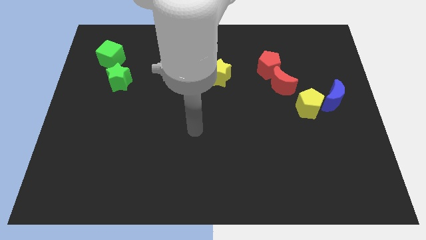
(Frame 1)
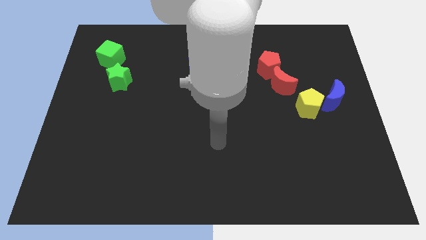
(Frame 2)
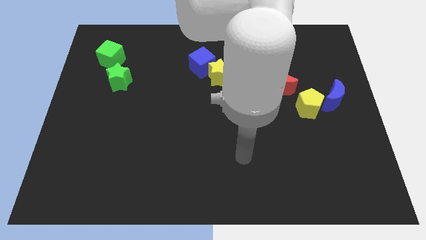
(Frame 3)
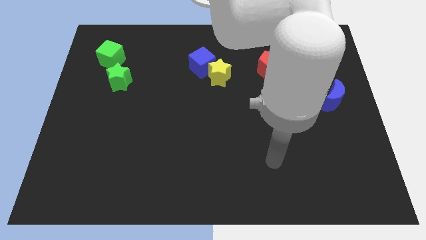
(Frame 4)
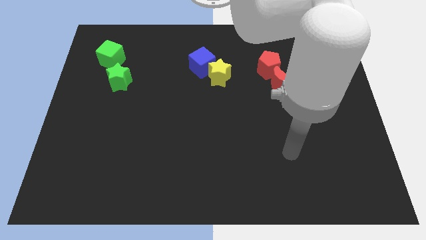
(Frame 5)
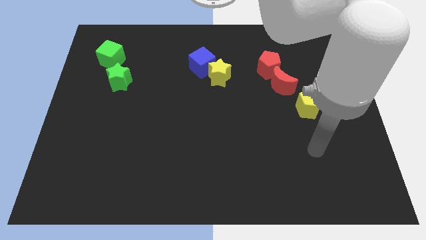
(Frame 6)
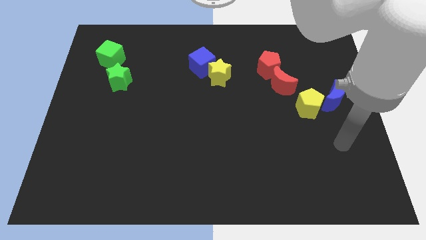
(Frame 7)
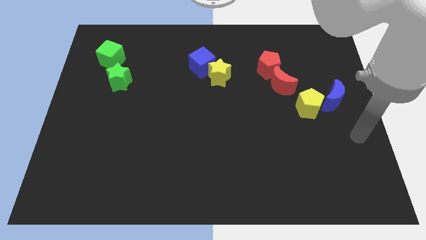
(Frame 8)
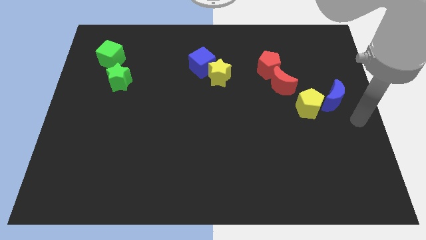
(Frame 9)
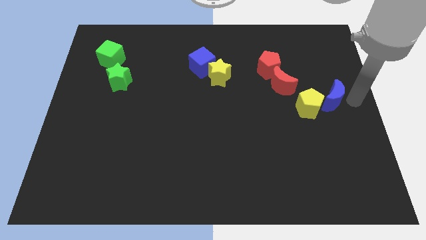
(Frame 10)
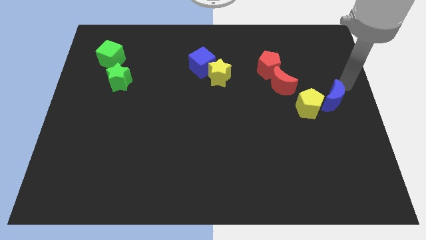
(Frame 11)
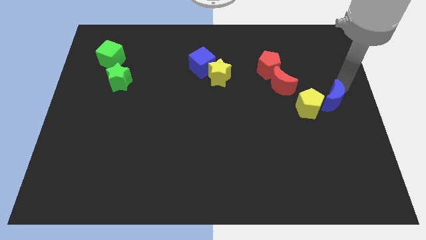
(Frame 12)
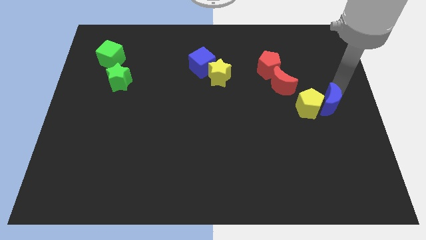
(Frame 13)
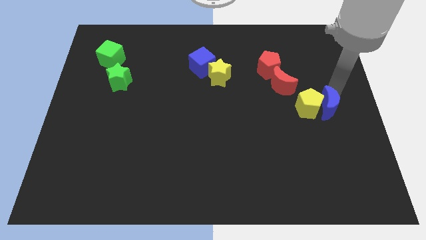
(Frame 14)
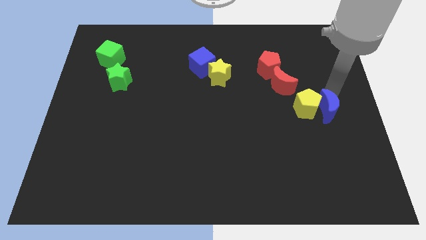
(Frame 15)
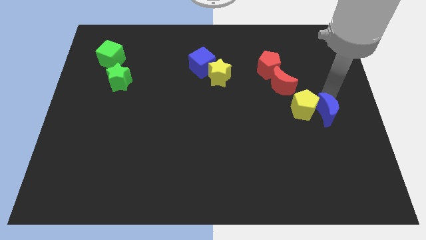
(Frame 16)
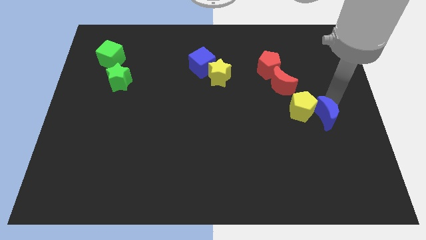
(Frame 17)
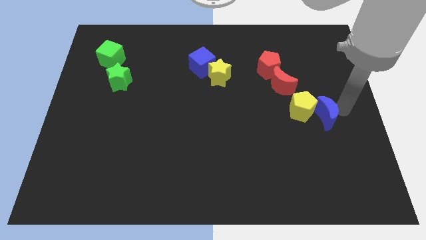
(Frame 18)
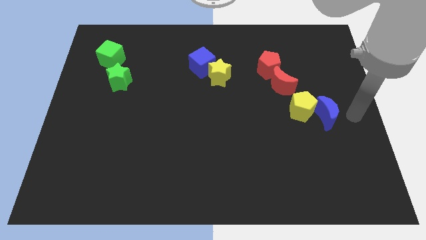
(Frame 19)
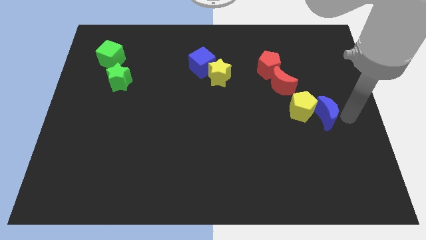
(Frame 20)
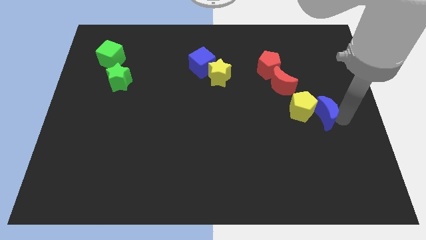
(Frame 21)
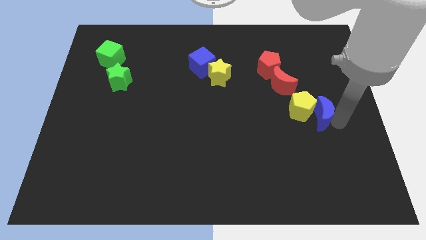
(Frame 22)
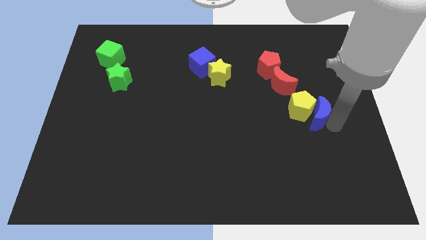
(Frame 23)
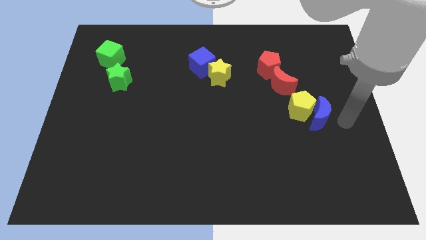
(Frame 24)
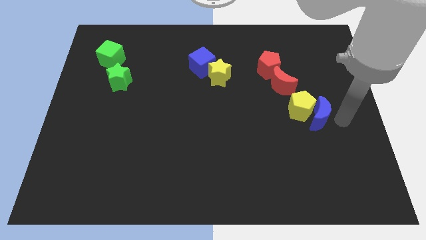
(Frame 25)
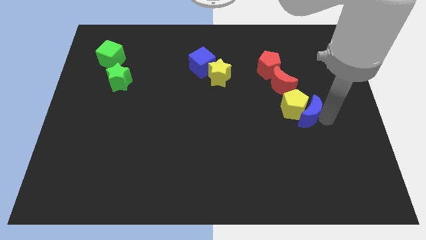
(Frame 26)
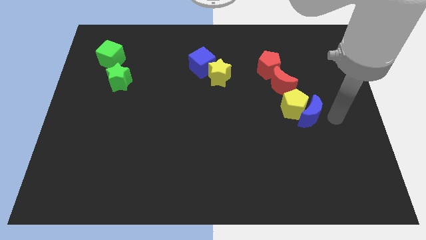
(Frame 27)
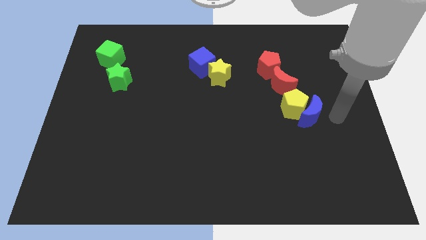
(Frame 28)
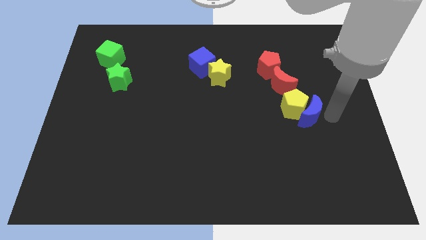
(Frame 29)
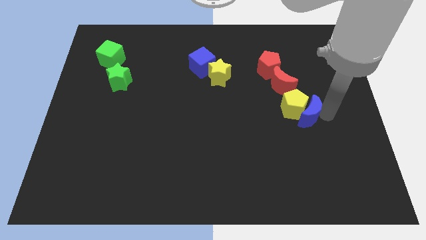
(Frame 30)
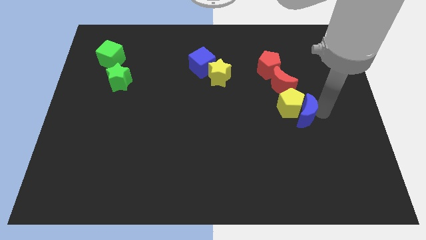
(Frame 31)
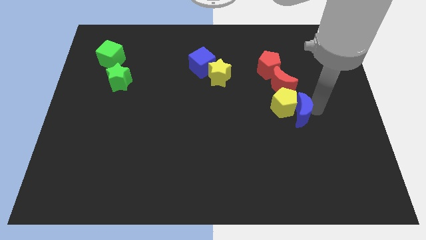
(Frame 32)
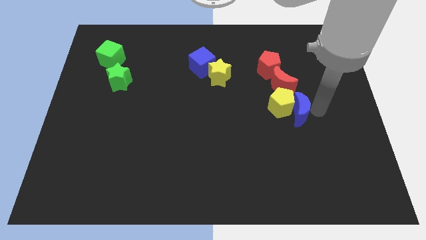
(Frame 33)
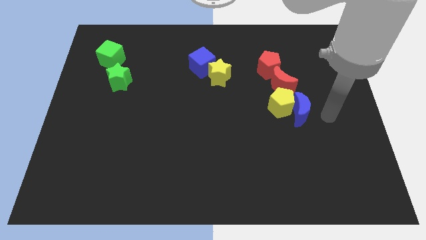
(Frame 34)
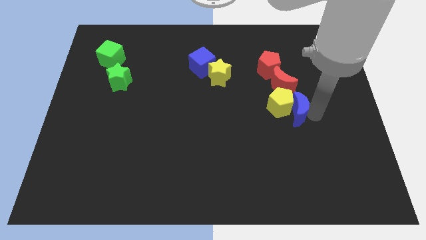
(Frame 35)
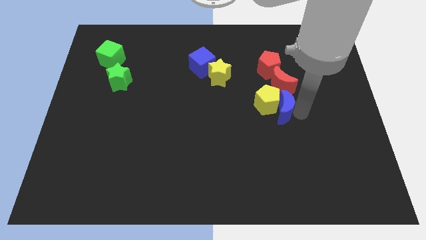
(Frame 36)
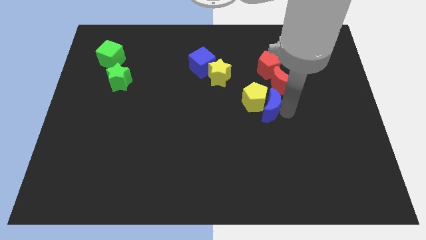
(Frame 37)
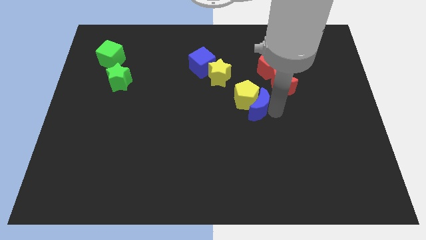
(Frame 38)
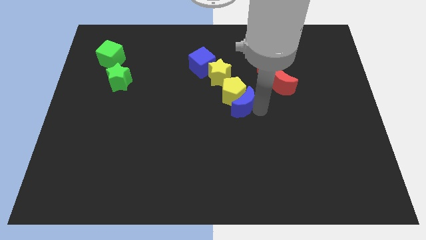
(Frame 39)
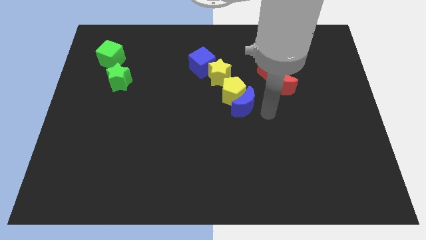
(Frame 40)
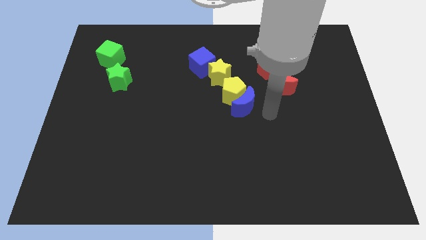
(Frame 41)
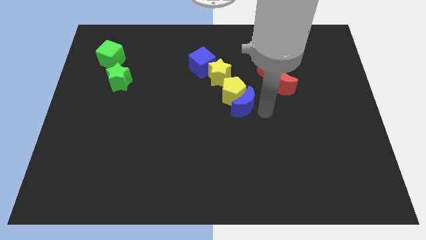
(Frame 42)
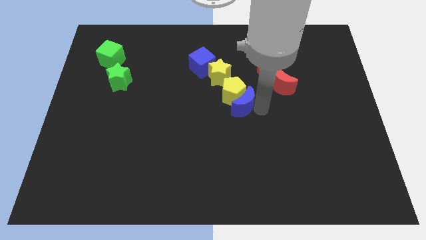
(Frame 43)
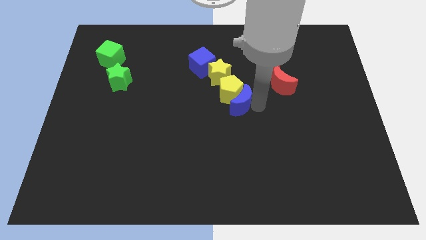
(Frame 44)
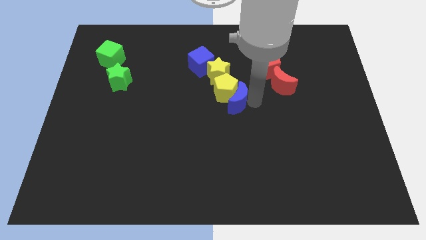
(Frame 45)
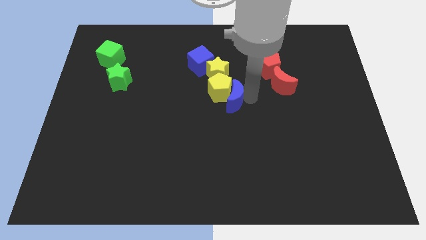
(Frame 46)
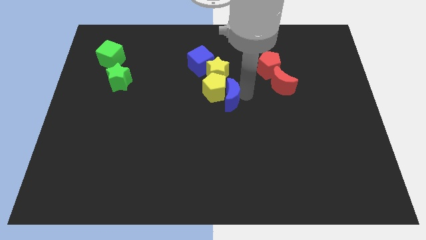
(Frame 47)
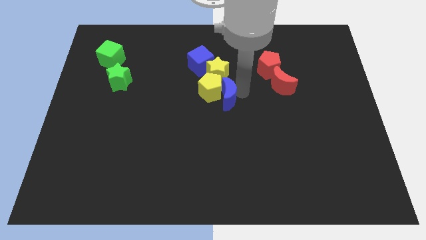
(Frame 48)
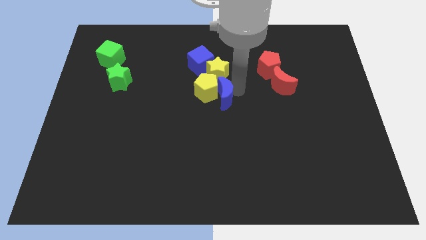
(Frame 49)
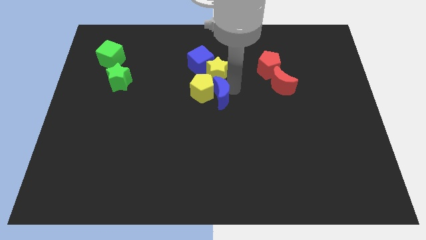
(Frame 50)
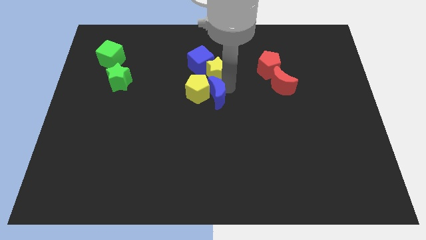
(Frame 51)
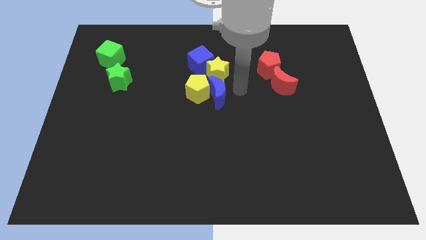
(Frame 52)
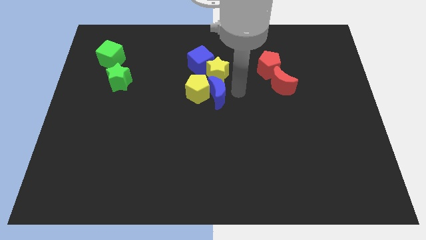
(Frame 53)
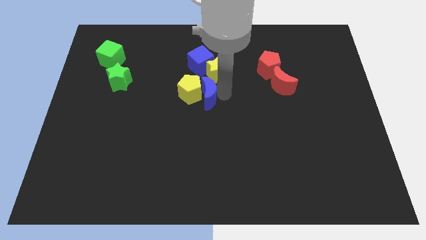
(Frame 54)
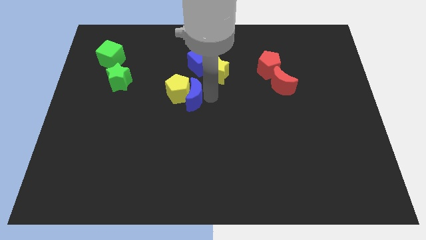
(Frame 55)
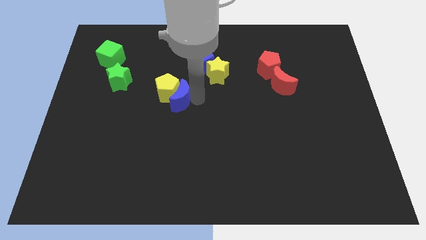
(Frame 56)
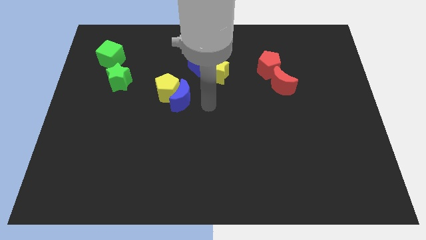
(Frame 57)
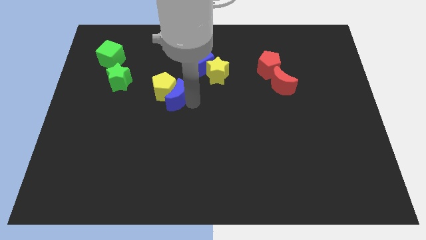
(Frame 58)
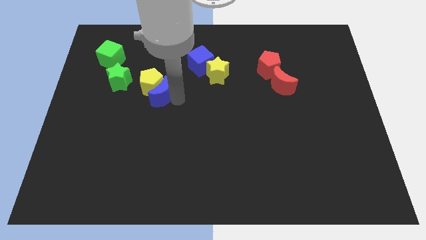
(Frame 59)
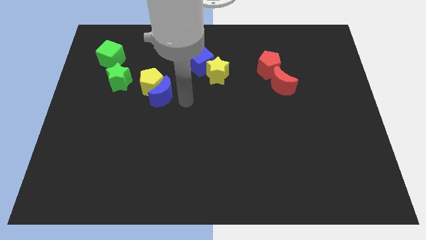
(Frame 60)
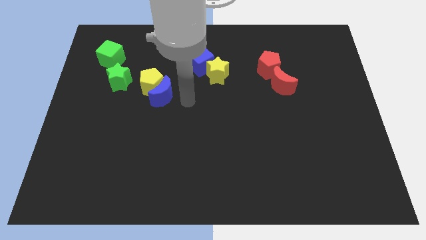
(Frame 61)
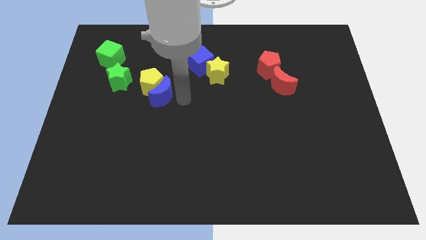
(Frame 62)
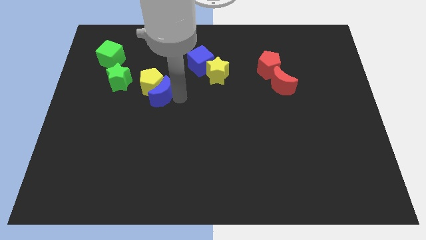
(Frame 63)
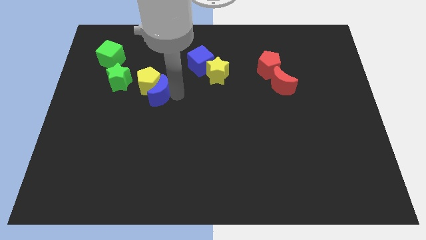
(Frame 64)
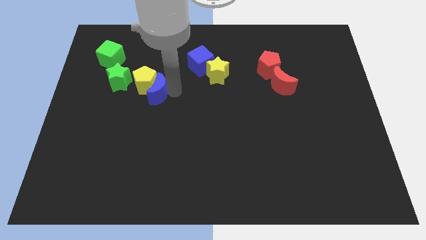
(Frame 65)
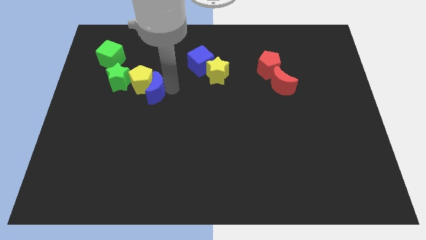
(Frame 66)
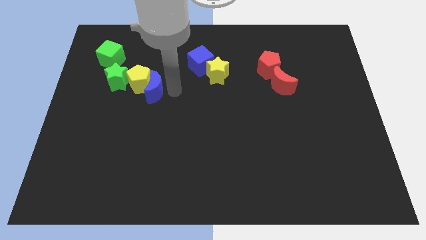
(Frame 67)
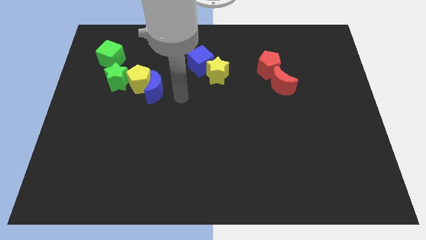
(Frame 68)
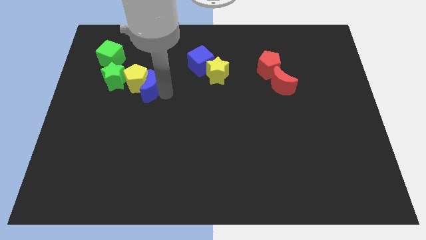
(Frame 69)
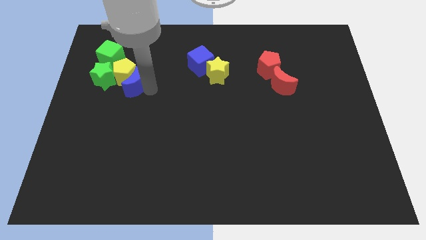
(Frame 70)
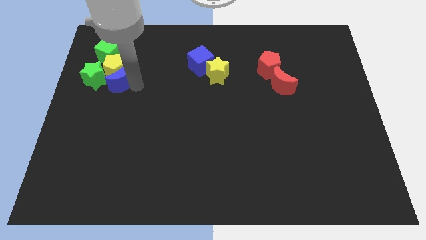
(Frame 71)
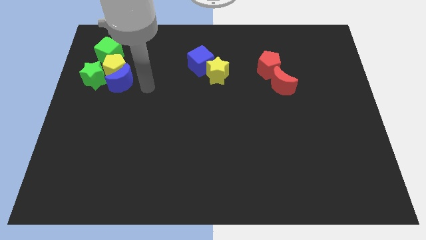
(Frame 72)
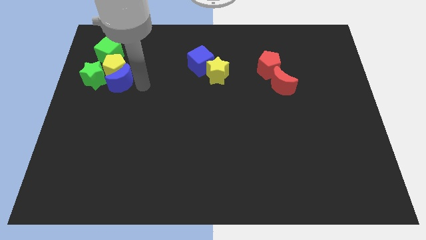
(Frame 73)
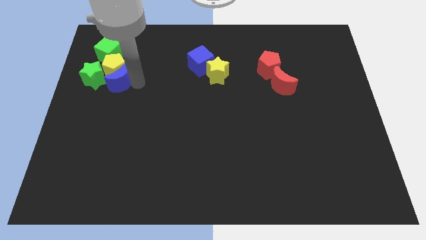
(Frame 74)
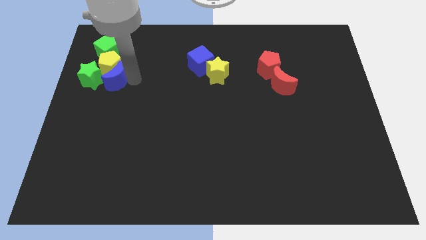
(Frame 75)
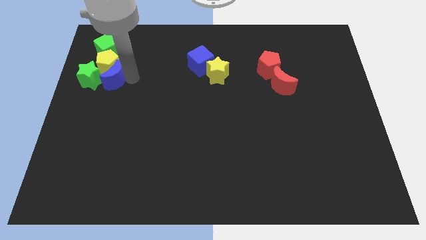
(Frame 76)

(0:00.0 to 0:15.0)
put the blue moon towards the green star
